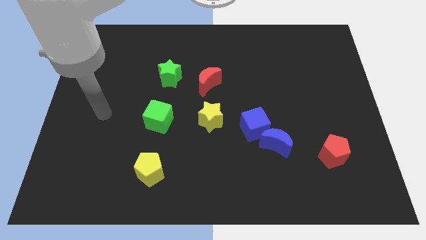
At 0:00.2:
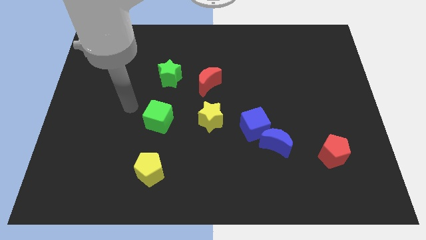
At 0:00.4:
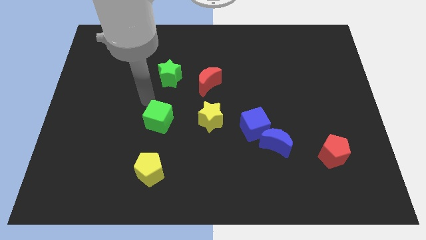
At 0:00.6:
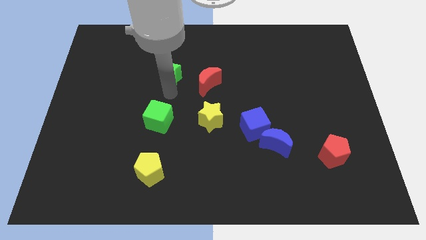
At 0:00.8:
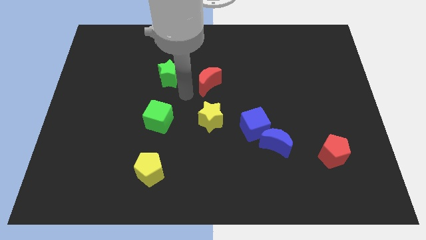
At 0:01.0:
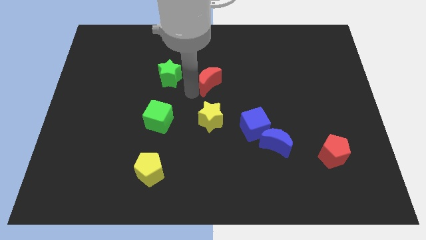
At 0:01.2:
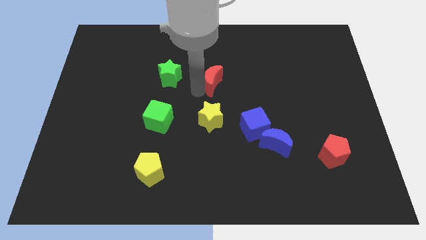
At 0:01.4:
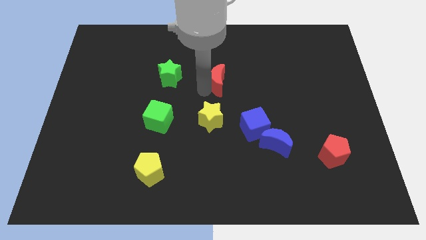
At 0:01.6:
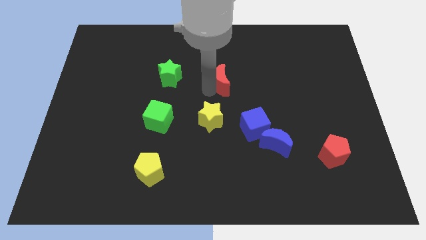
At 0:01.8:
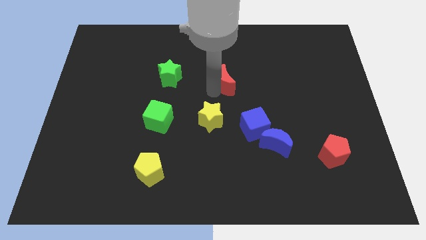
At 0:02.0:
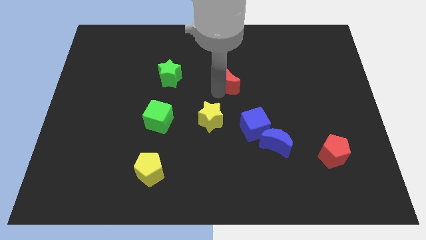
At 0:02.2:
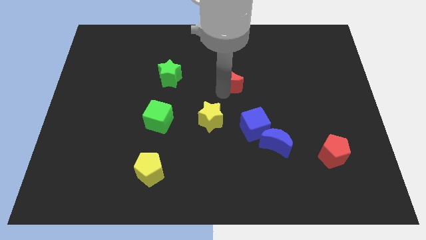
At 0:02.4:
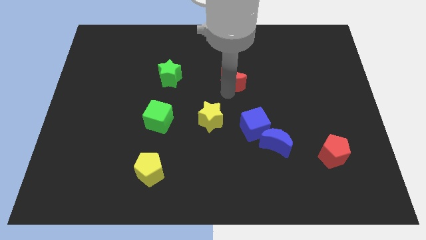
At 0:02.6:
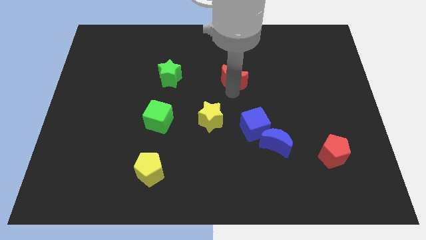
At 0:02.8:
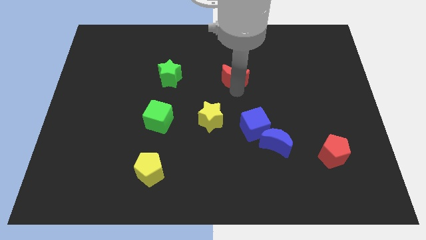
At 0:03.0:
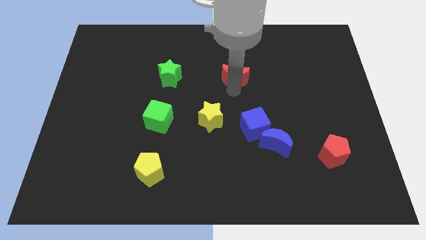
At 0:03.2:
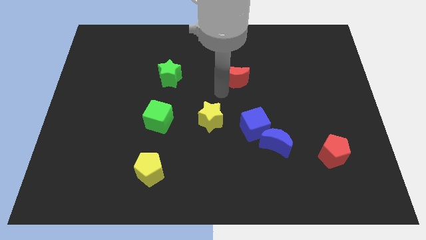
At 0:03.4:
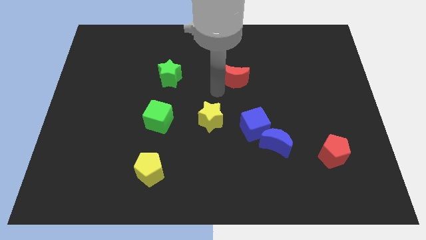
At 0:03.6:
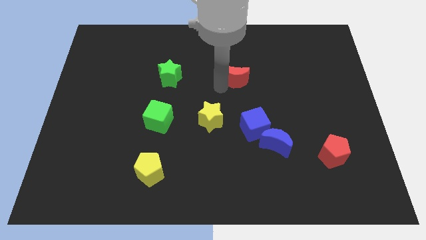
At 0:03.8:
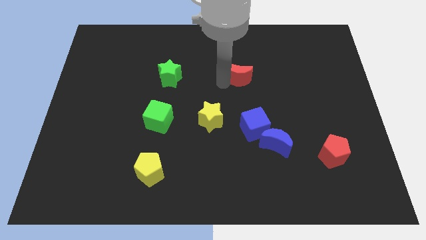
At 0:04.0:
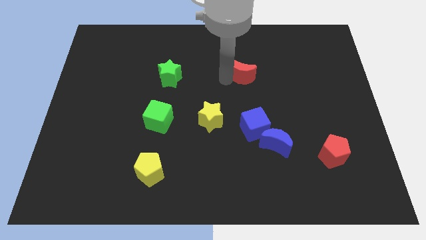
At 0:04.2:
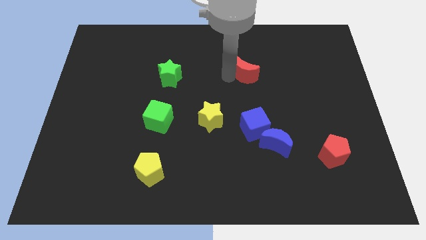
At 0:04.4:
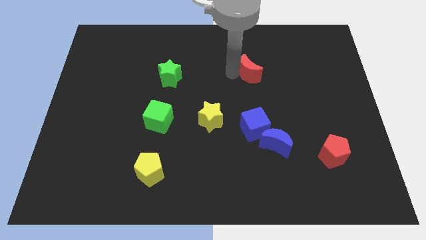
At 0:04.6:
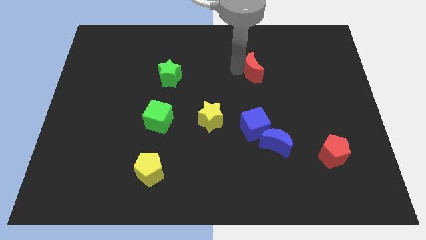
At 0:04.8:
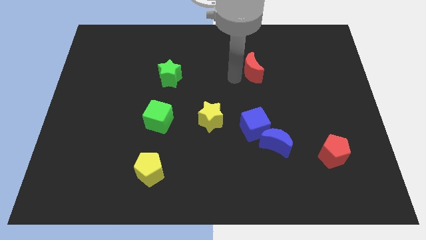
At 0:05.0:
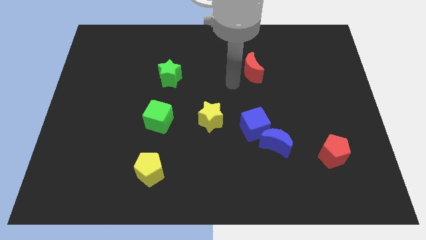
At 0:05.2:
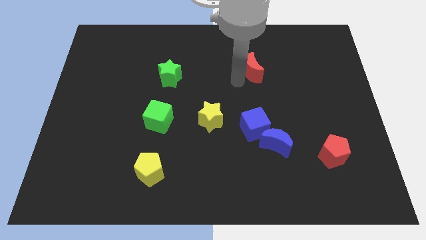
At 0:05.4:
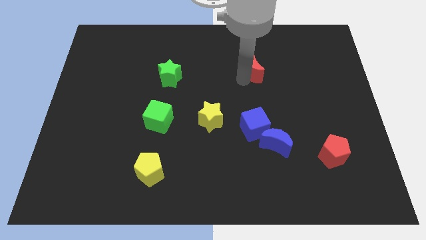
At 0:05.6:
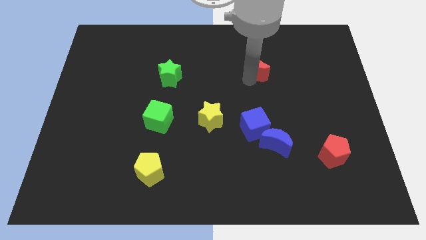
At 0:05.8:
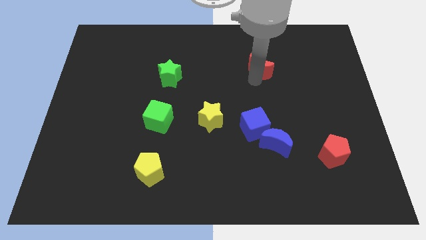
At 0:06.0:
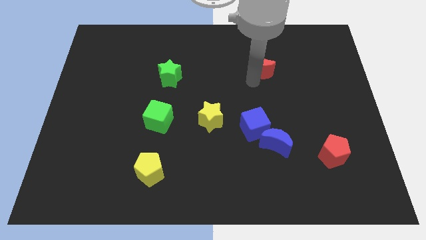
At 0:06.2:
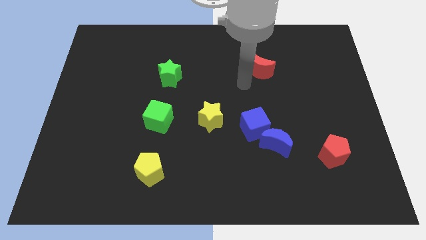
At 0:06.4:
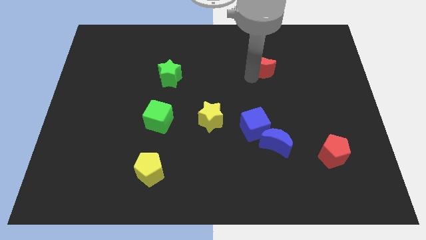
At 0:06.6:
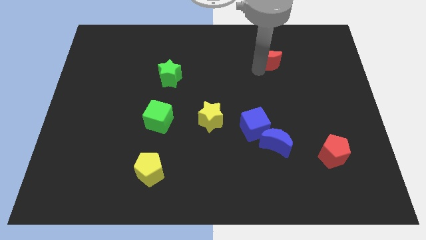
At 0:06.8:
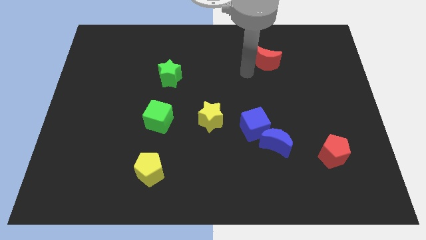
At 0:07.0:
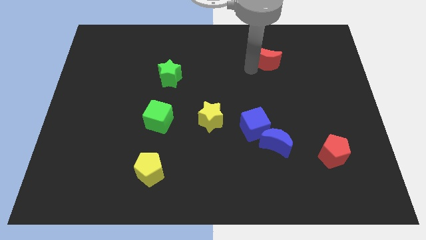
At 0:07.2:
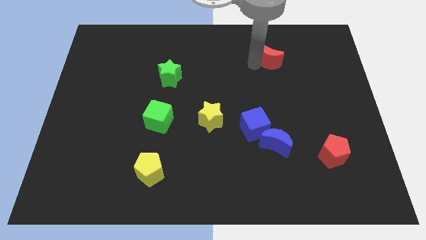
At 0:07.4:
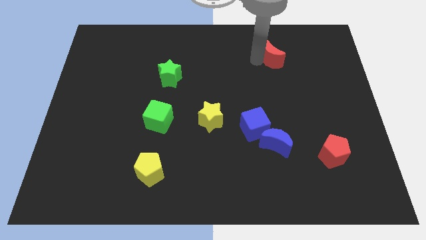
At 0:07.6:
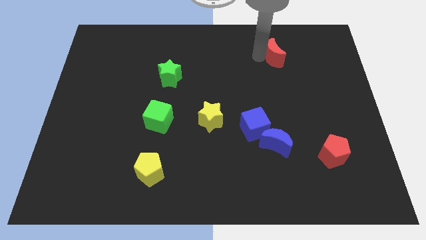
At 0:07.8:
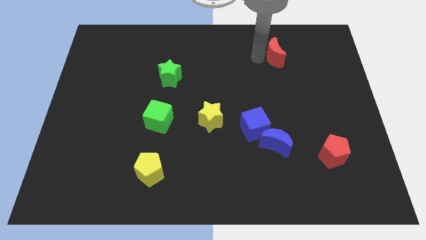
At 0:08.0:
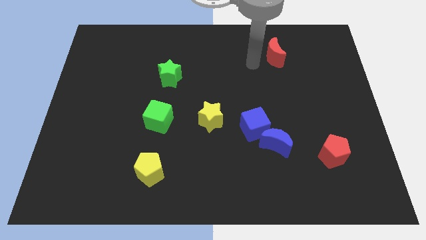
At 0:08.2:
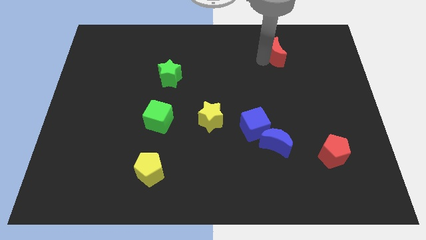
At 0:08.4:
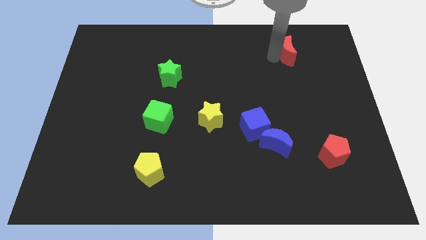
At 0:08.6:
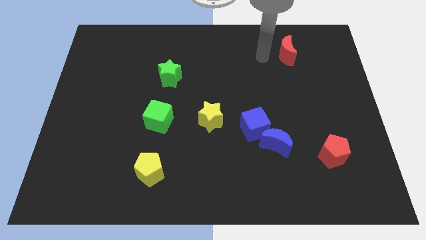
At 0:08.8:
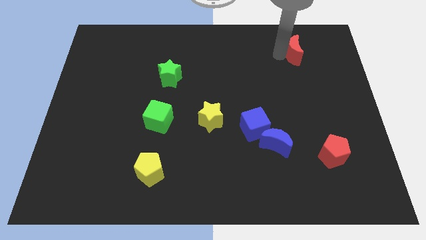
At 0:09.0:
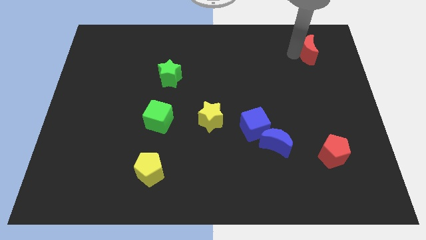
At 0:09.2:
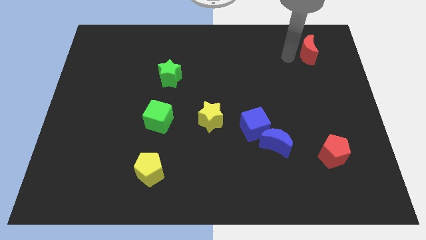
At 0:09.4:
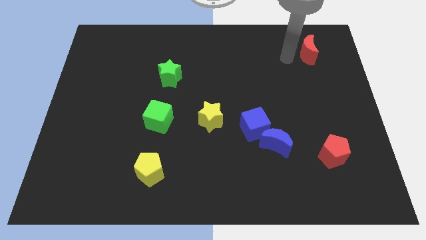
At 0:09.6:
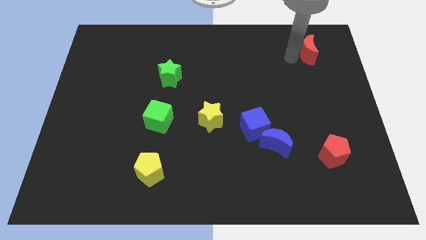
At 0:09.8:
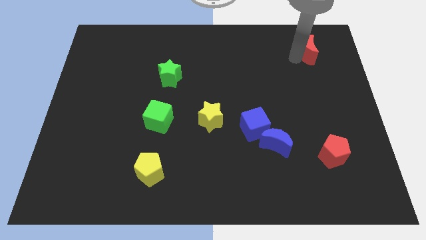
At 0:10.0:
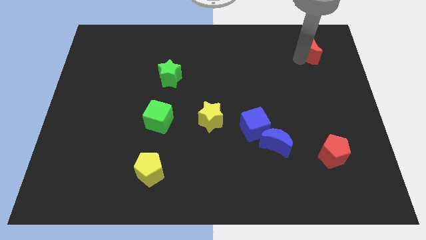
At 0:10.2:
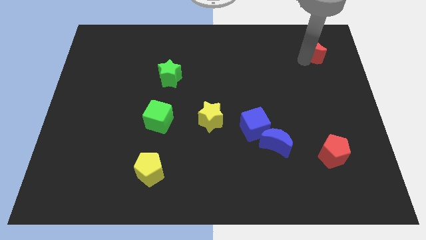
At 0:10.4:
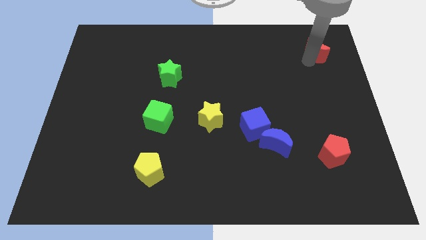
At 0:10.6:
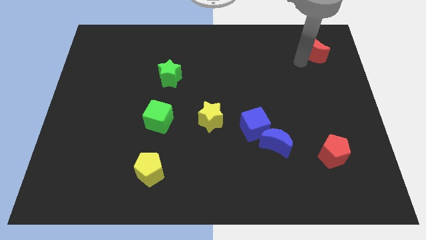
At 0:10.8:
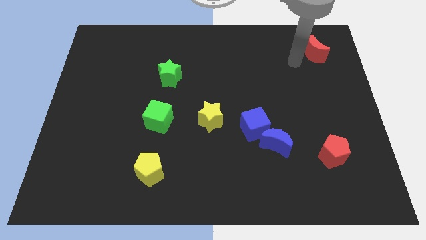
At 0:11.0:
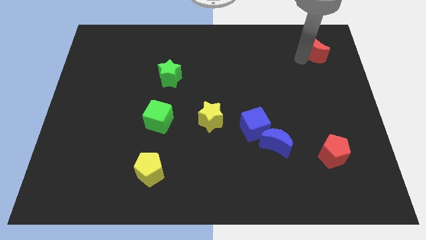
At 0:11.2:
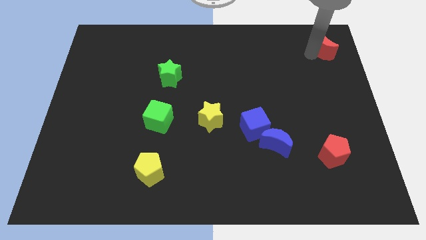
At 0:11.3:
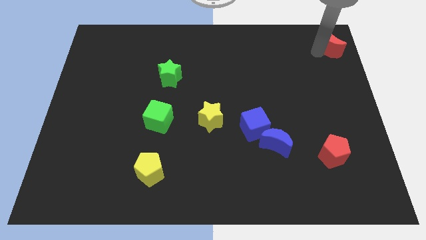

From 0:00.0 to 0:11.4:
put the red moon to the top right of the board
